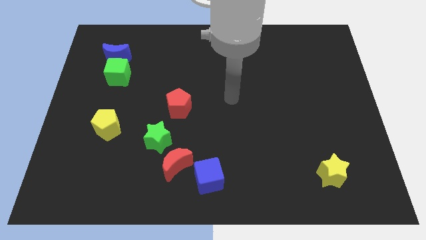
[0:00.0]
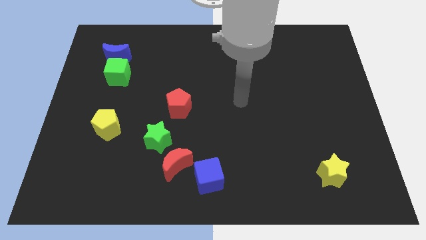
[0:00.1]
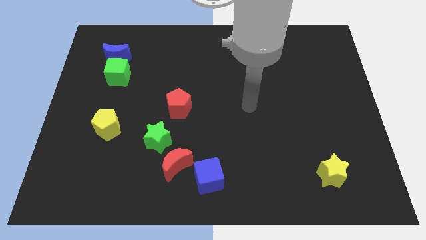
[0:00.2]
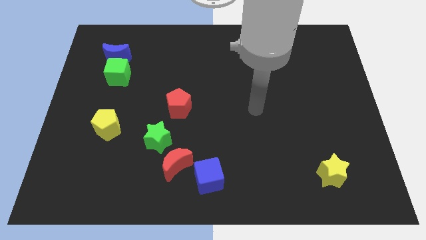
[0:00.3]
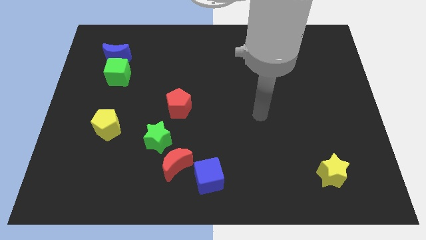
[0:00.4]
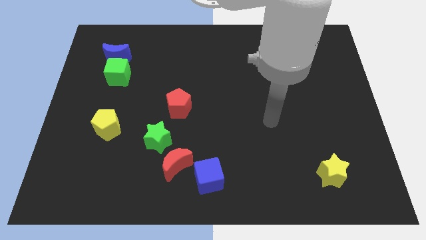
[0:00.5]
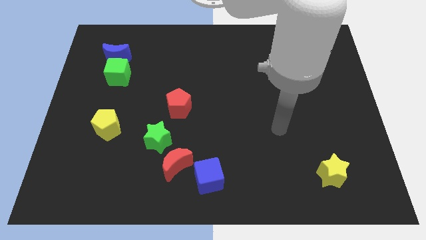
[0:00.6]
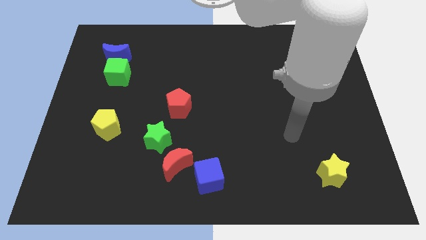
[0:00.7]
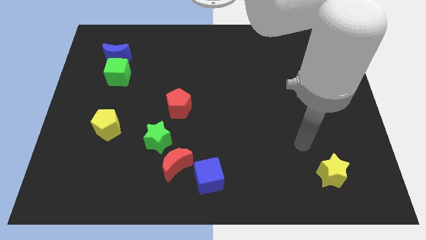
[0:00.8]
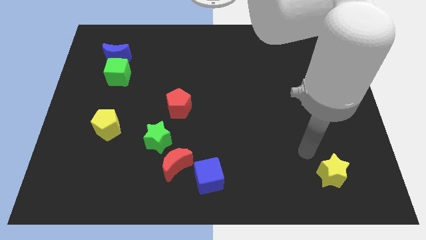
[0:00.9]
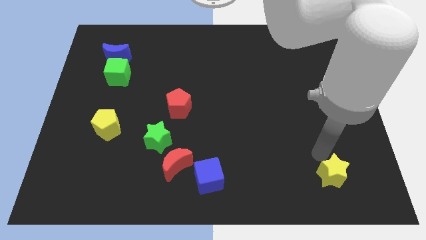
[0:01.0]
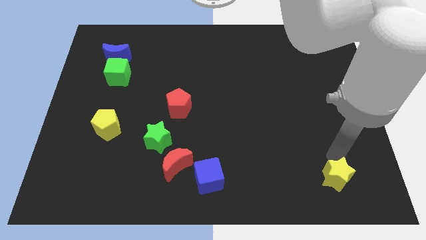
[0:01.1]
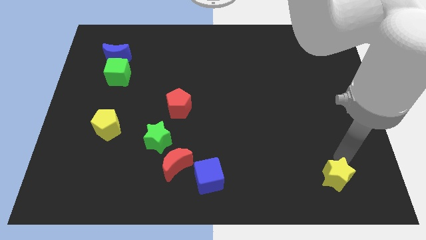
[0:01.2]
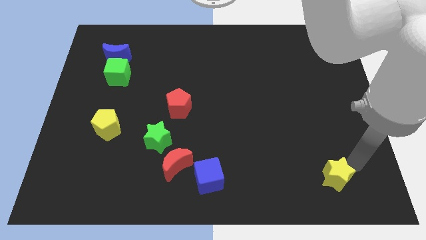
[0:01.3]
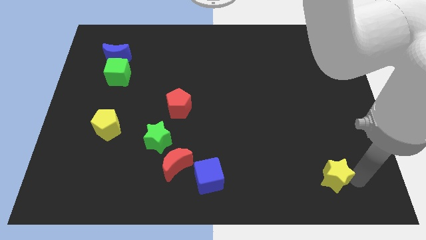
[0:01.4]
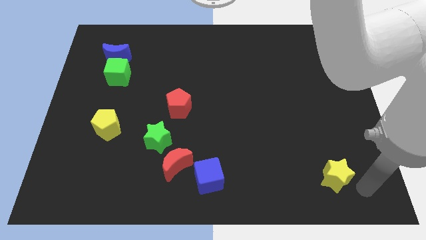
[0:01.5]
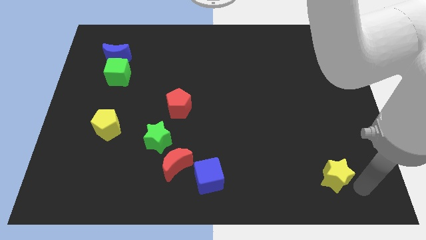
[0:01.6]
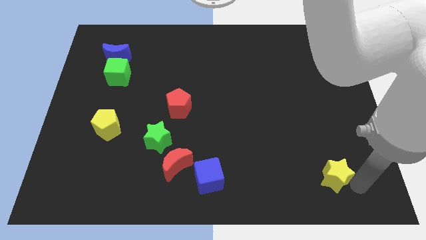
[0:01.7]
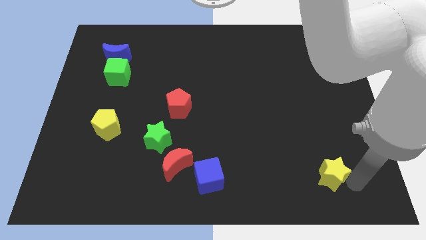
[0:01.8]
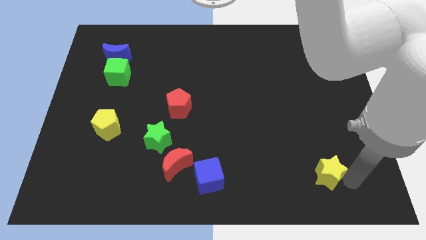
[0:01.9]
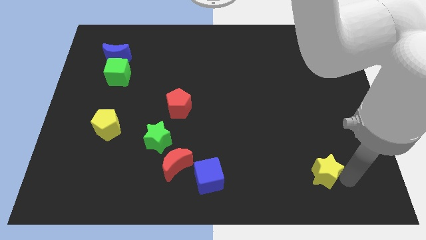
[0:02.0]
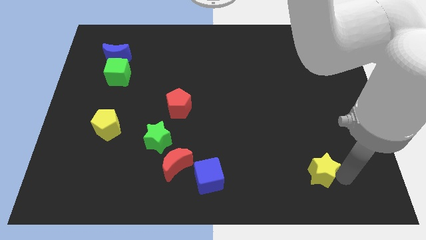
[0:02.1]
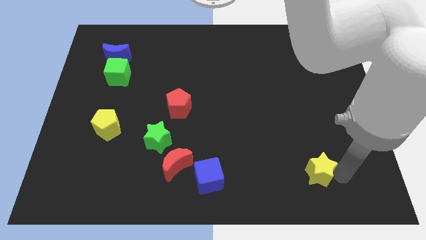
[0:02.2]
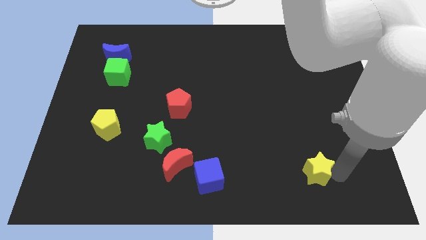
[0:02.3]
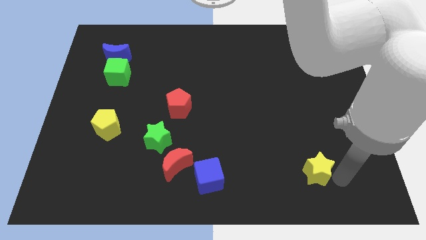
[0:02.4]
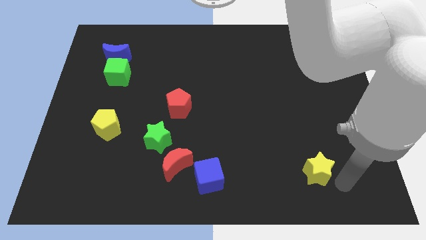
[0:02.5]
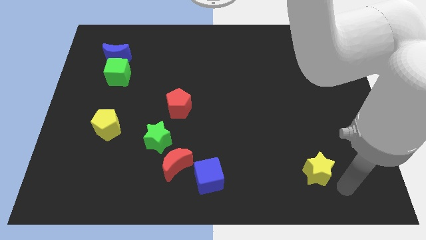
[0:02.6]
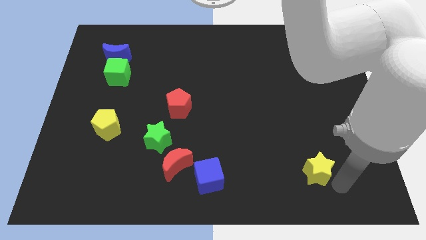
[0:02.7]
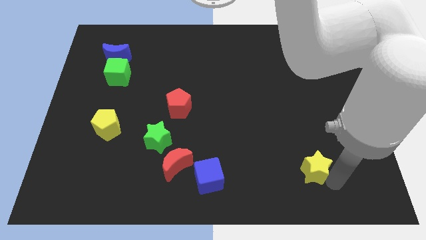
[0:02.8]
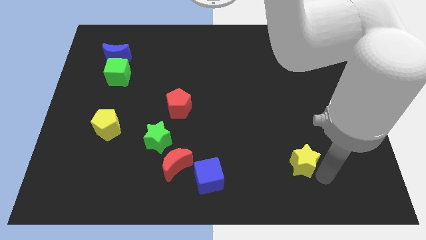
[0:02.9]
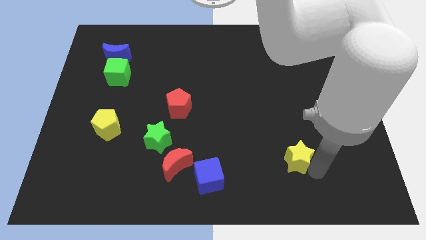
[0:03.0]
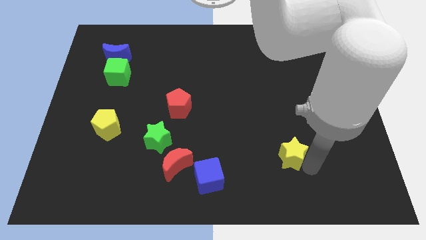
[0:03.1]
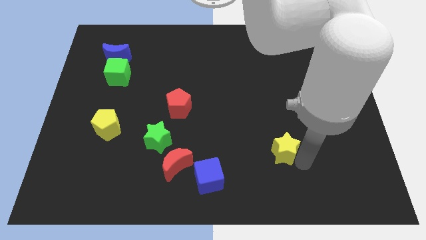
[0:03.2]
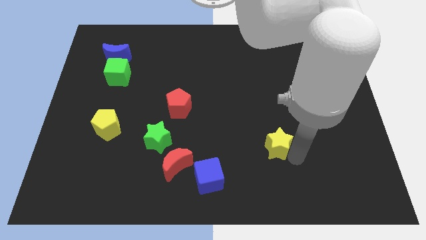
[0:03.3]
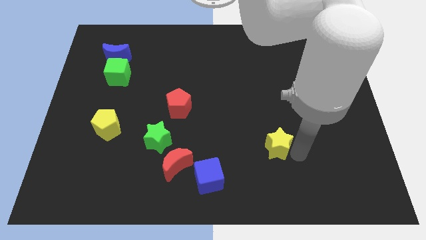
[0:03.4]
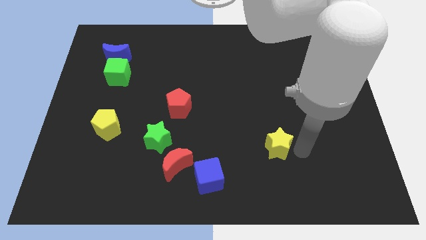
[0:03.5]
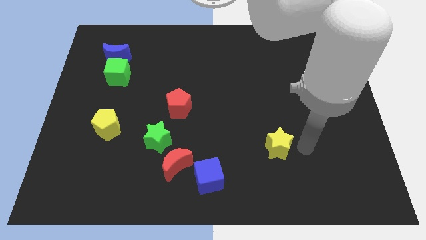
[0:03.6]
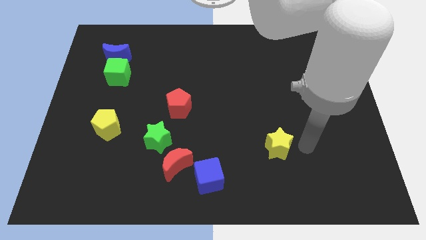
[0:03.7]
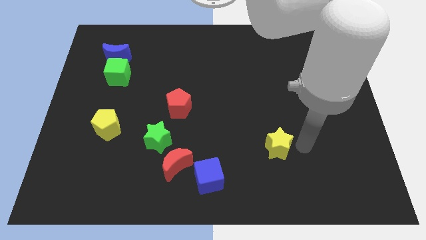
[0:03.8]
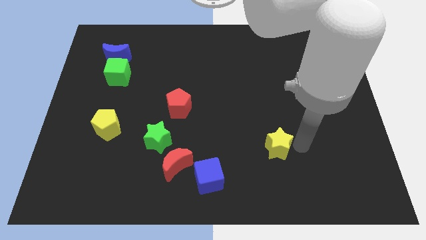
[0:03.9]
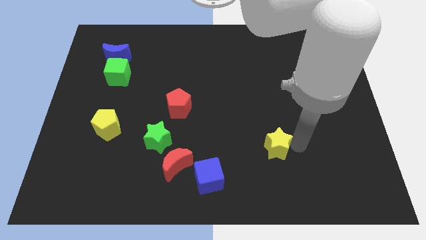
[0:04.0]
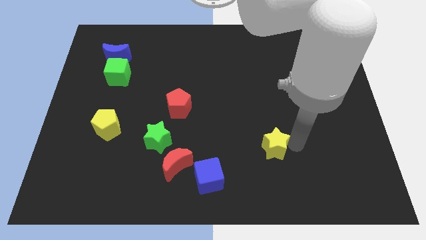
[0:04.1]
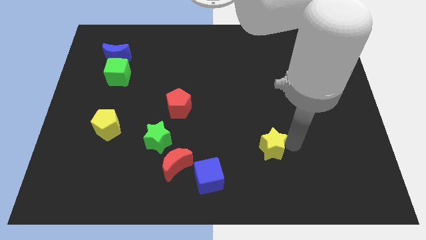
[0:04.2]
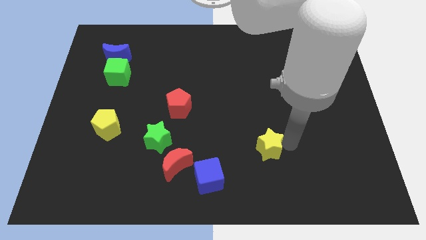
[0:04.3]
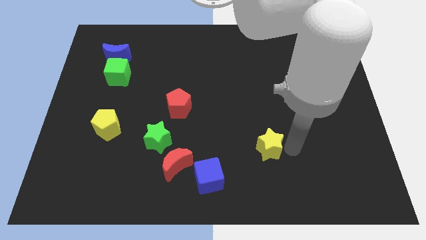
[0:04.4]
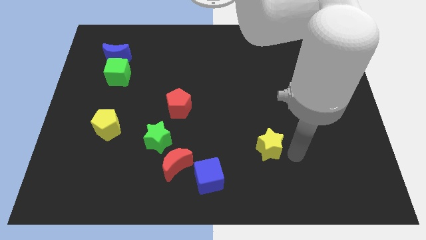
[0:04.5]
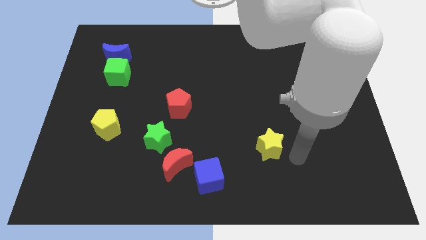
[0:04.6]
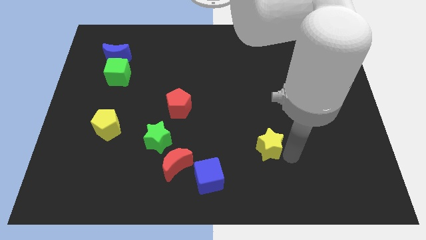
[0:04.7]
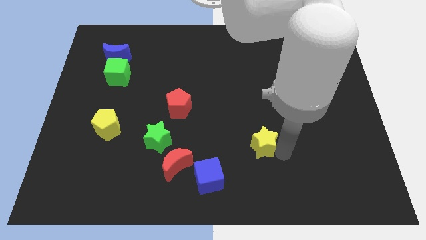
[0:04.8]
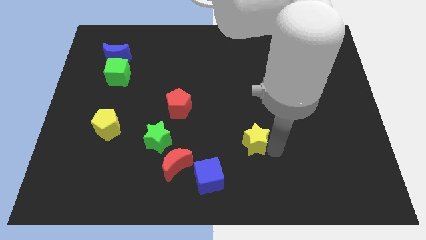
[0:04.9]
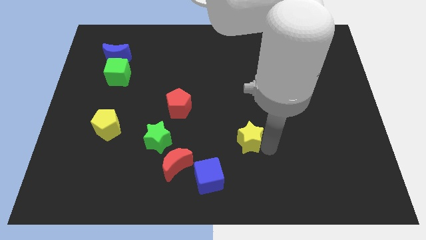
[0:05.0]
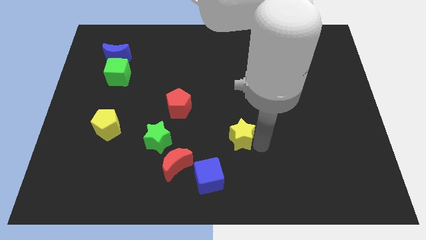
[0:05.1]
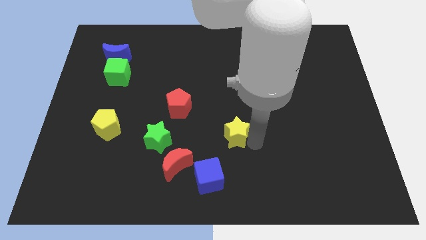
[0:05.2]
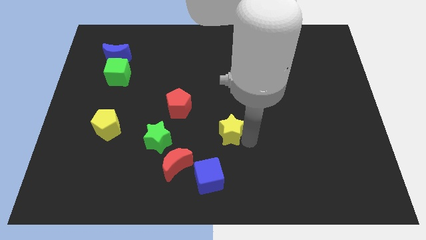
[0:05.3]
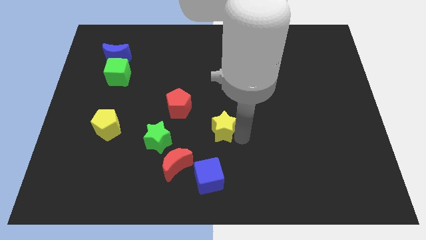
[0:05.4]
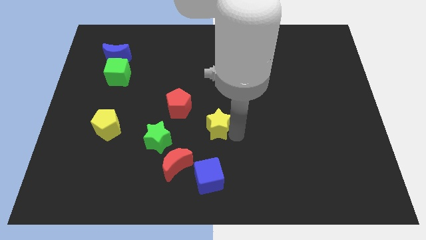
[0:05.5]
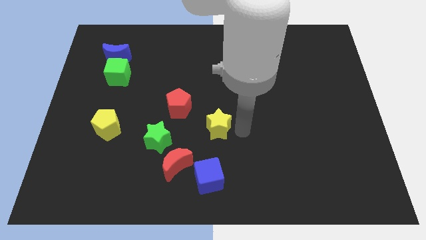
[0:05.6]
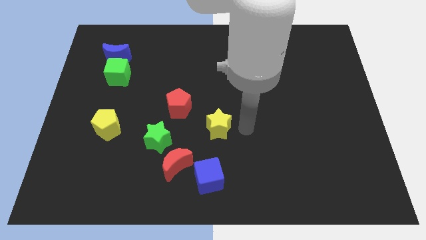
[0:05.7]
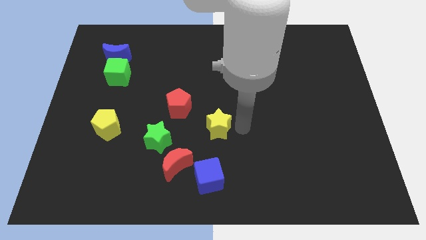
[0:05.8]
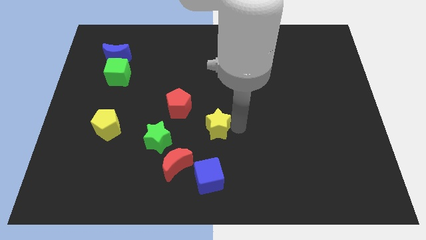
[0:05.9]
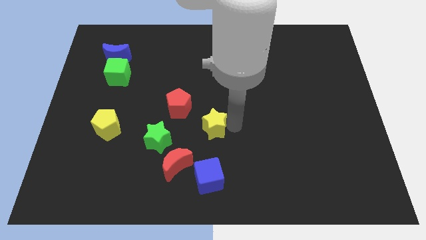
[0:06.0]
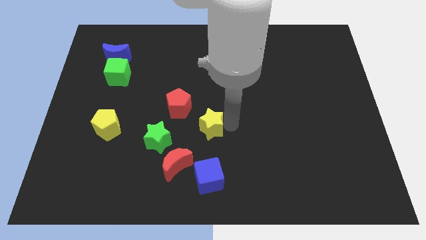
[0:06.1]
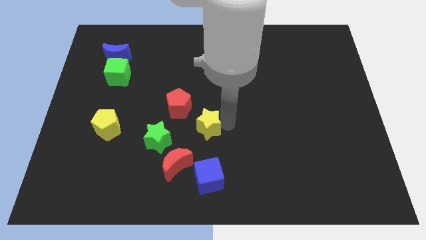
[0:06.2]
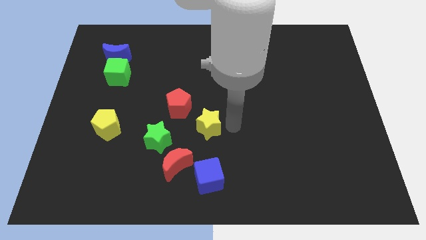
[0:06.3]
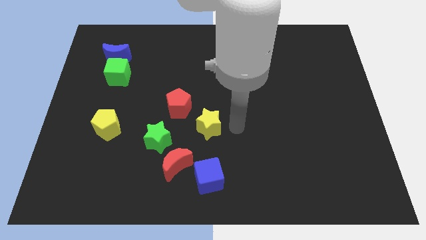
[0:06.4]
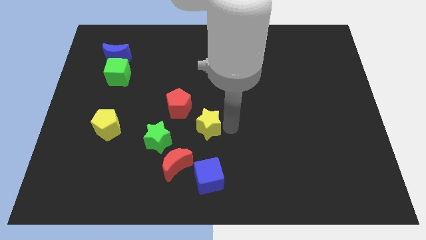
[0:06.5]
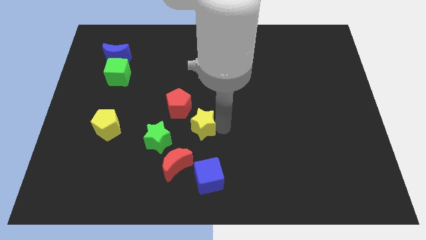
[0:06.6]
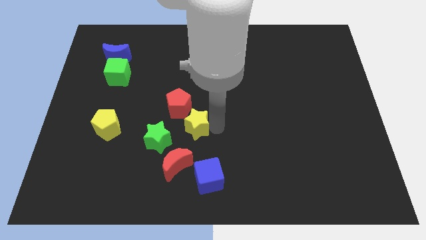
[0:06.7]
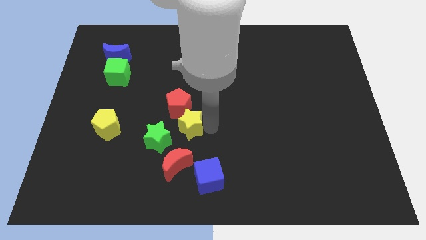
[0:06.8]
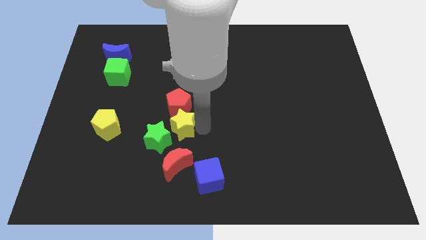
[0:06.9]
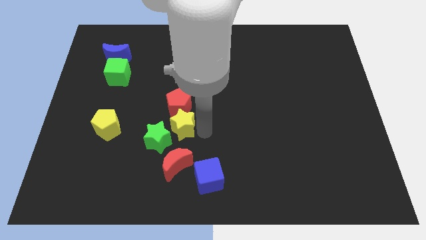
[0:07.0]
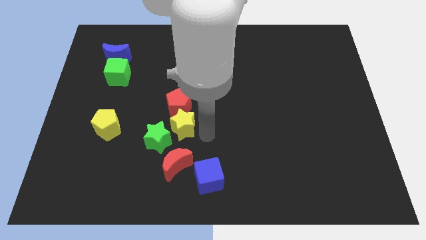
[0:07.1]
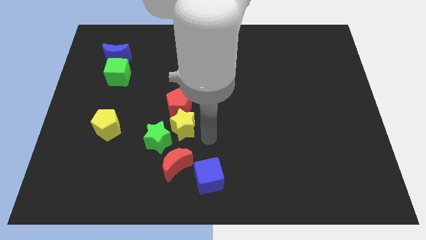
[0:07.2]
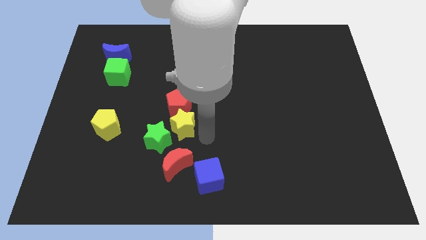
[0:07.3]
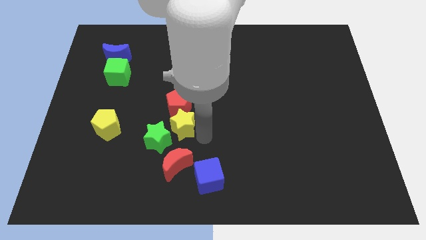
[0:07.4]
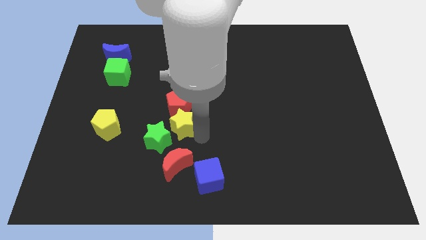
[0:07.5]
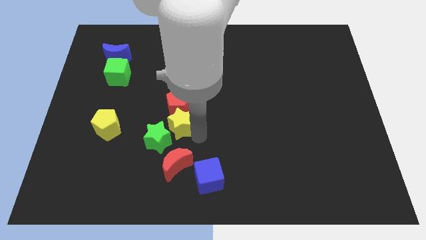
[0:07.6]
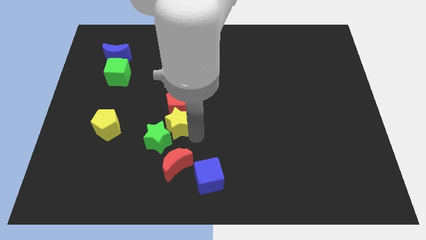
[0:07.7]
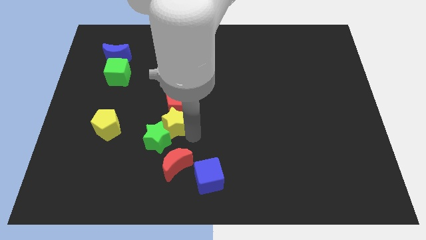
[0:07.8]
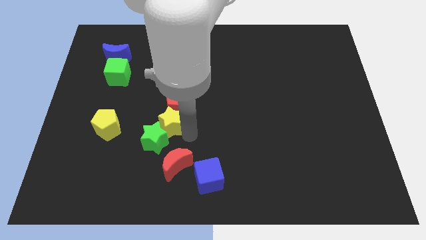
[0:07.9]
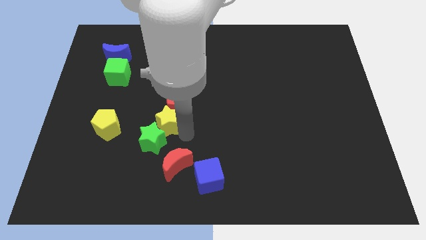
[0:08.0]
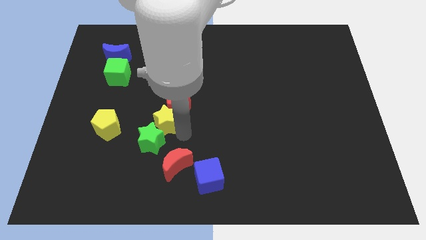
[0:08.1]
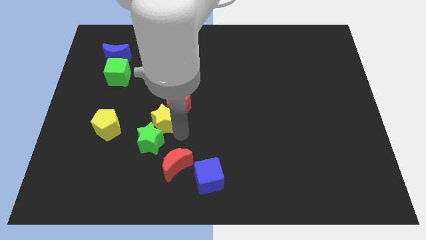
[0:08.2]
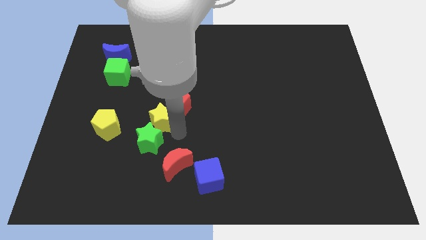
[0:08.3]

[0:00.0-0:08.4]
move the yellow star left of the red pentagon
